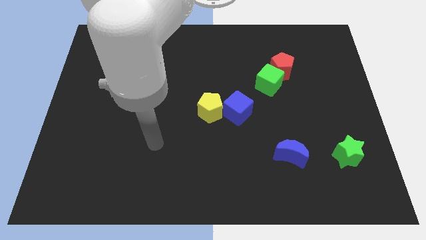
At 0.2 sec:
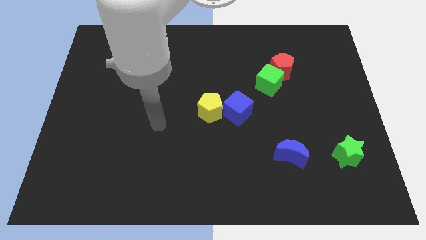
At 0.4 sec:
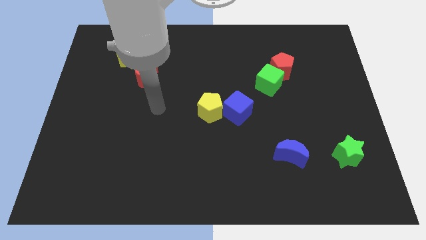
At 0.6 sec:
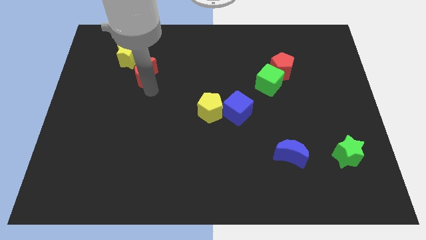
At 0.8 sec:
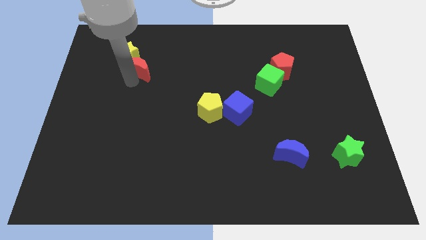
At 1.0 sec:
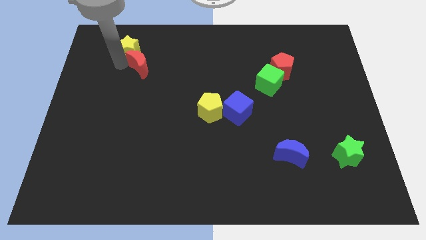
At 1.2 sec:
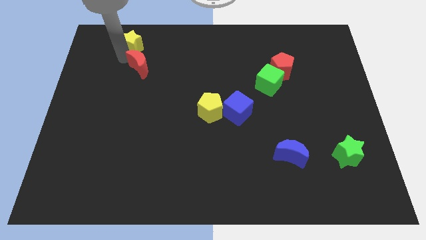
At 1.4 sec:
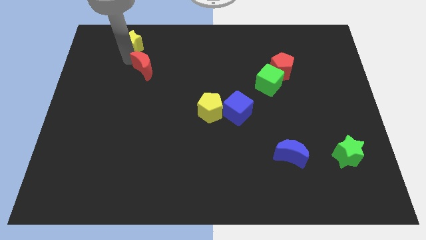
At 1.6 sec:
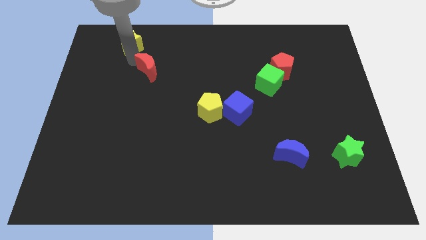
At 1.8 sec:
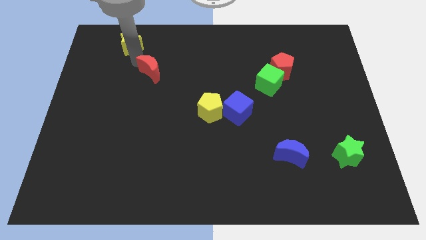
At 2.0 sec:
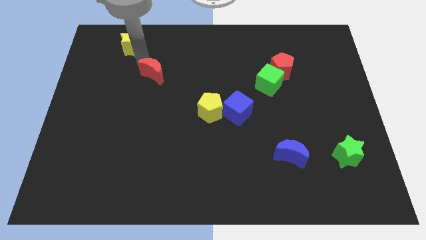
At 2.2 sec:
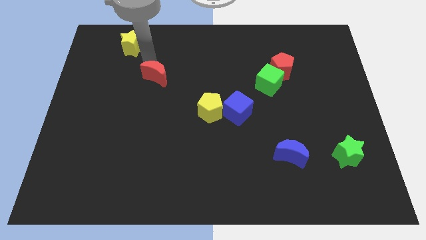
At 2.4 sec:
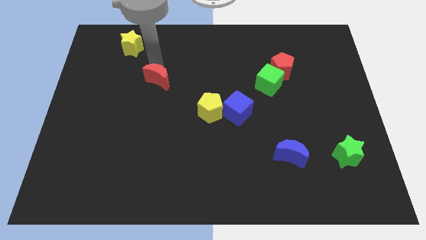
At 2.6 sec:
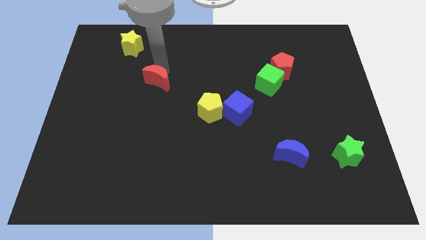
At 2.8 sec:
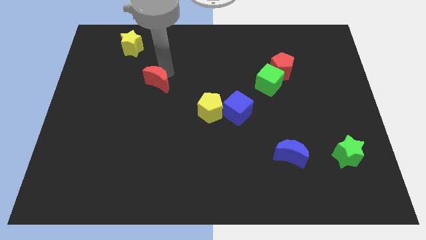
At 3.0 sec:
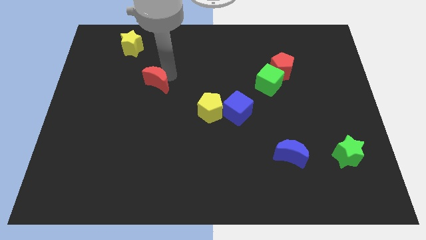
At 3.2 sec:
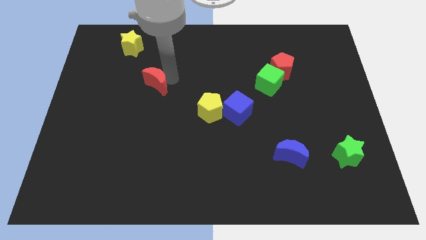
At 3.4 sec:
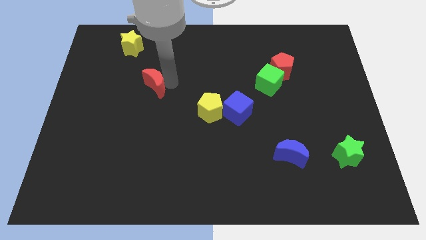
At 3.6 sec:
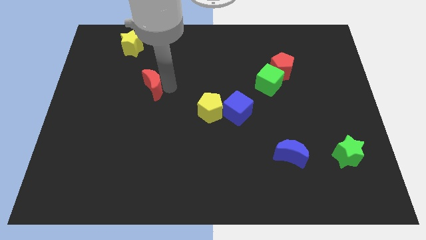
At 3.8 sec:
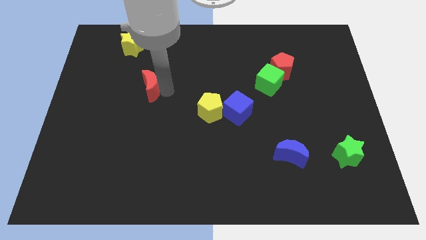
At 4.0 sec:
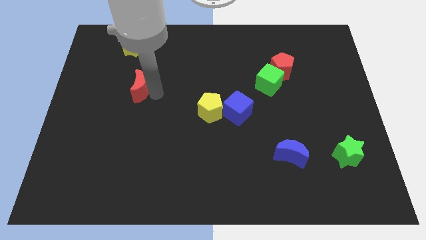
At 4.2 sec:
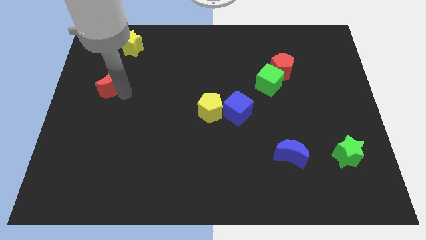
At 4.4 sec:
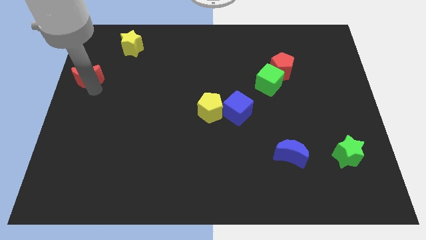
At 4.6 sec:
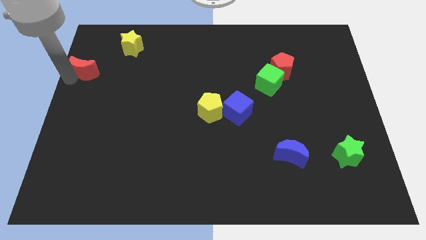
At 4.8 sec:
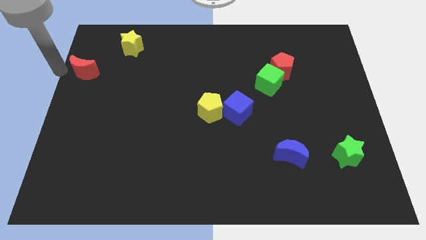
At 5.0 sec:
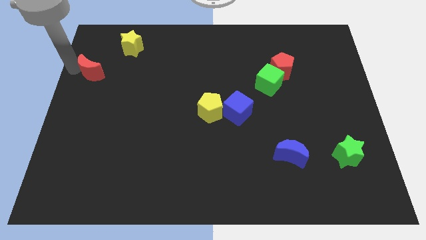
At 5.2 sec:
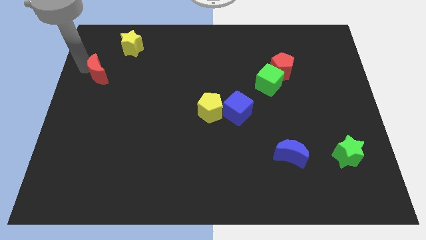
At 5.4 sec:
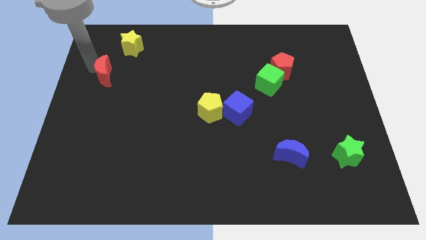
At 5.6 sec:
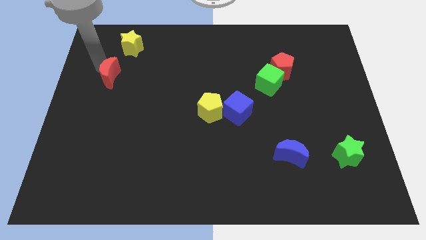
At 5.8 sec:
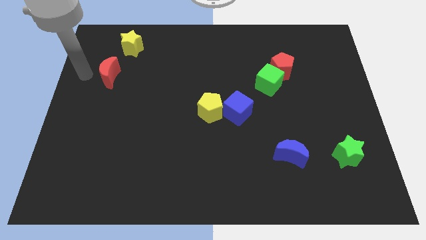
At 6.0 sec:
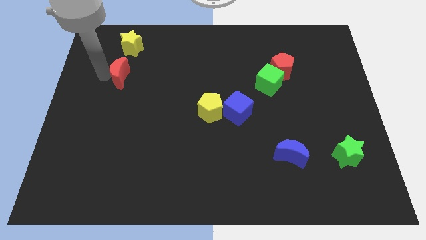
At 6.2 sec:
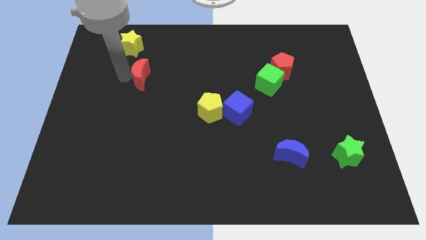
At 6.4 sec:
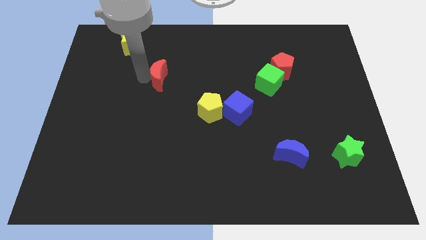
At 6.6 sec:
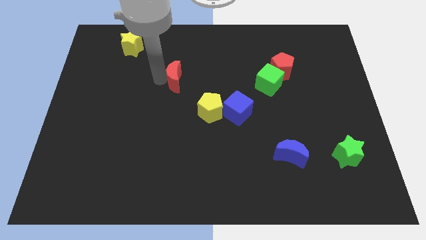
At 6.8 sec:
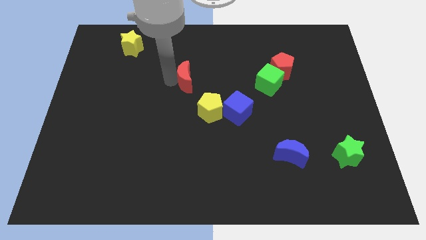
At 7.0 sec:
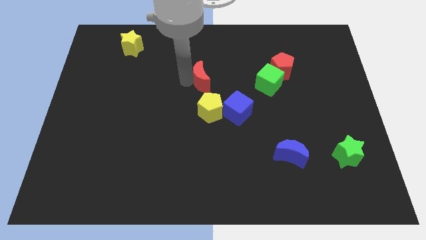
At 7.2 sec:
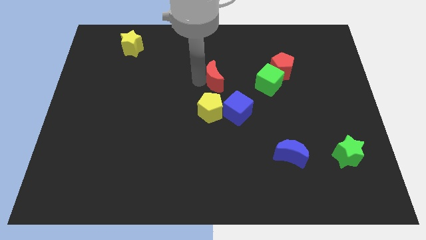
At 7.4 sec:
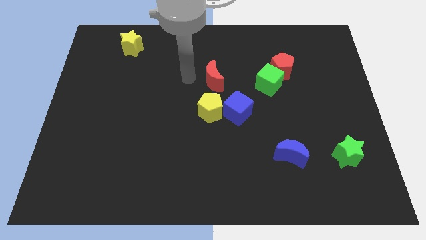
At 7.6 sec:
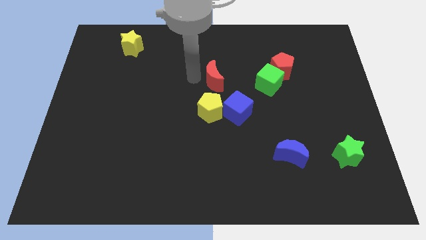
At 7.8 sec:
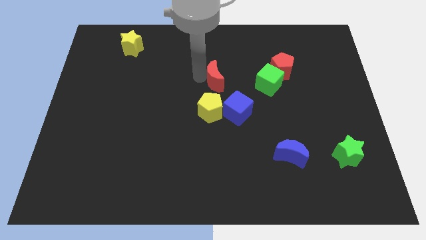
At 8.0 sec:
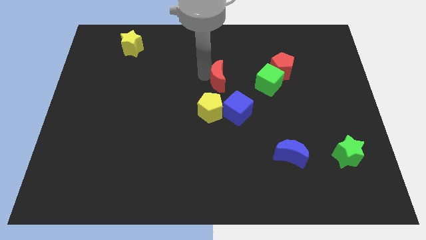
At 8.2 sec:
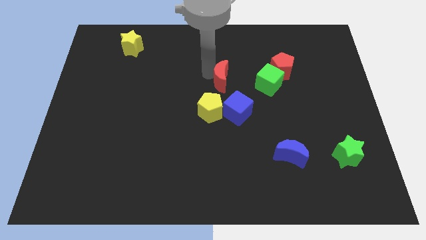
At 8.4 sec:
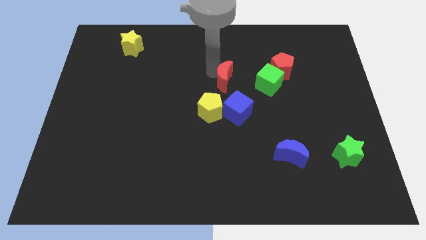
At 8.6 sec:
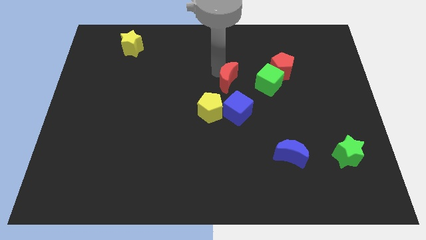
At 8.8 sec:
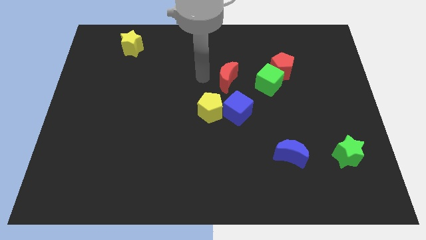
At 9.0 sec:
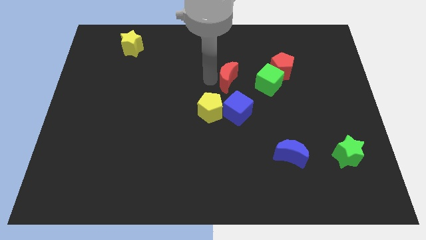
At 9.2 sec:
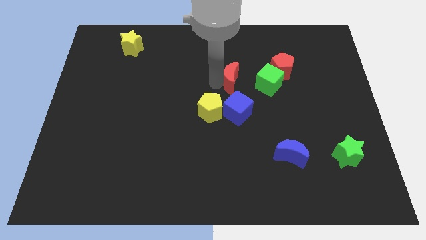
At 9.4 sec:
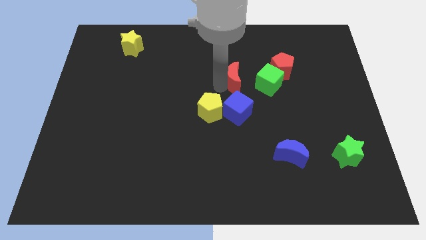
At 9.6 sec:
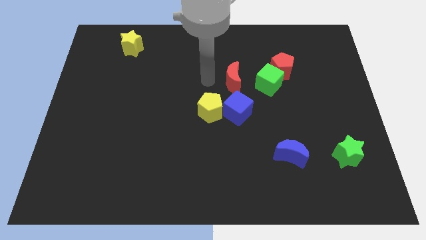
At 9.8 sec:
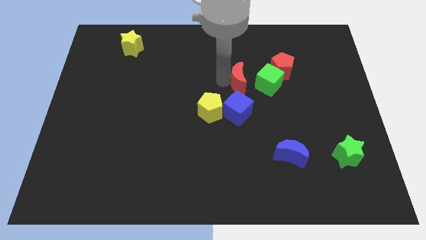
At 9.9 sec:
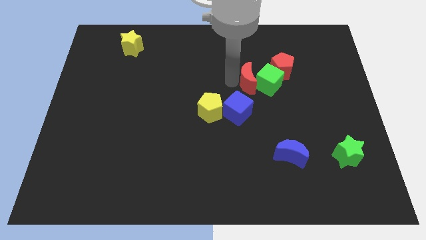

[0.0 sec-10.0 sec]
put the red moon to the green cube

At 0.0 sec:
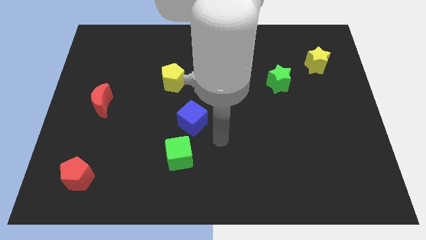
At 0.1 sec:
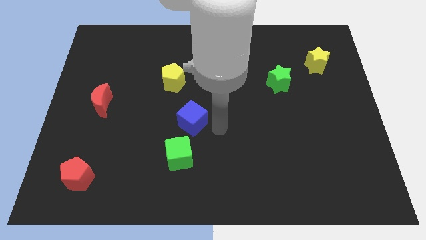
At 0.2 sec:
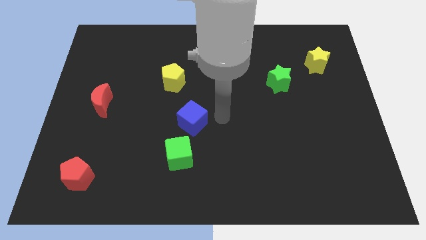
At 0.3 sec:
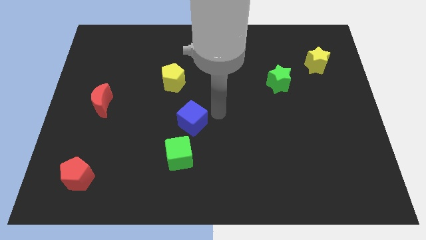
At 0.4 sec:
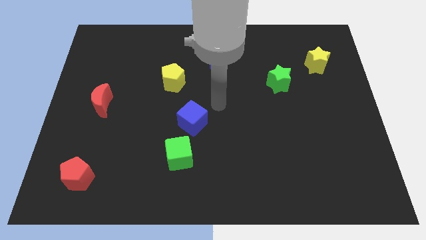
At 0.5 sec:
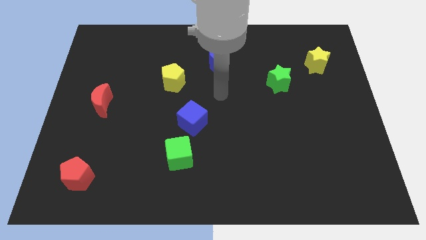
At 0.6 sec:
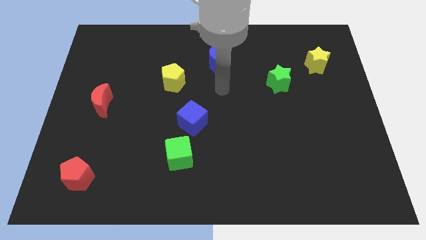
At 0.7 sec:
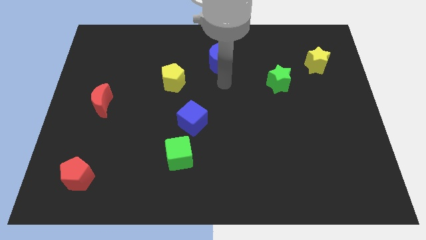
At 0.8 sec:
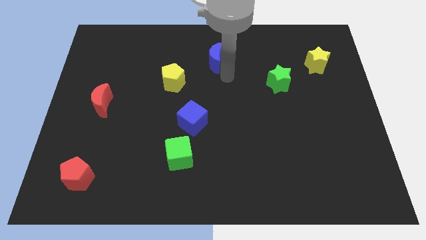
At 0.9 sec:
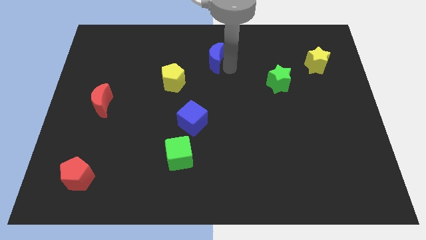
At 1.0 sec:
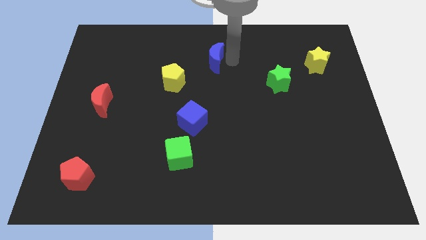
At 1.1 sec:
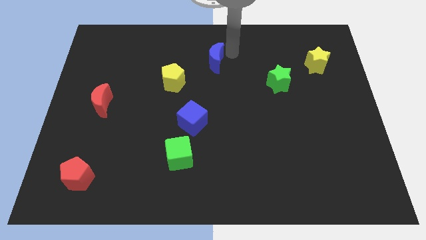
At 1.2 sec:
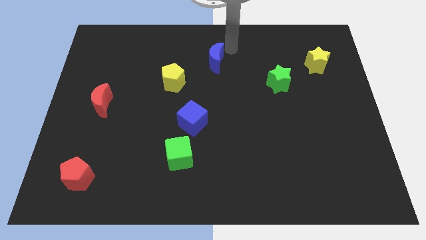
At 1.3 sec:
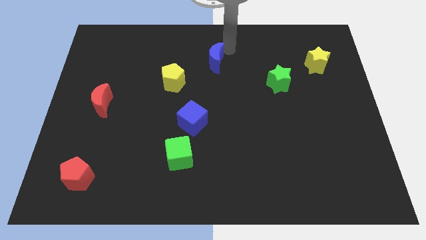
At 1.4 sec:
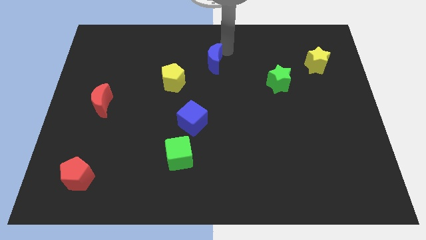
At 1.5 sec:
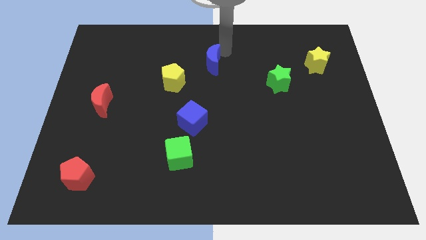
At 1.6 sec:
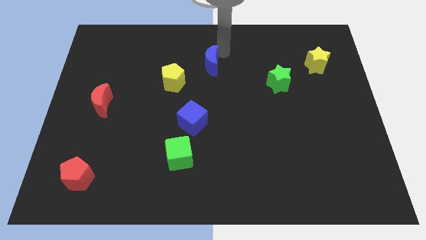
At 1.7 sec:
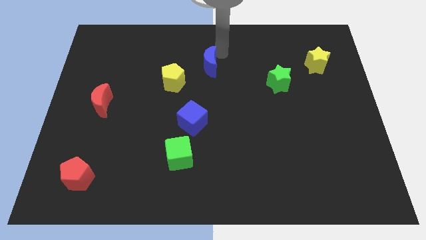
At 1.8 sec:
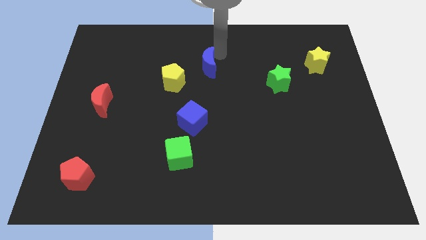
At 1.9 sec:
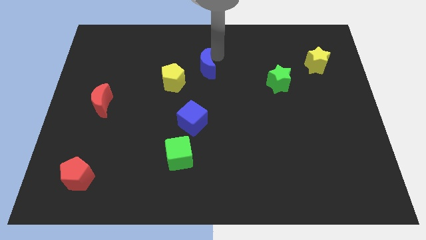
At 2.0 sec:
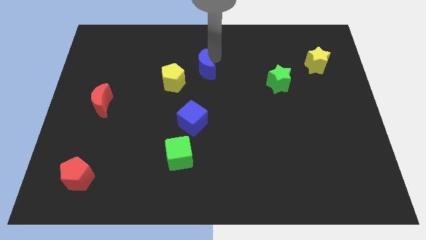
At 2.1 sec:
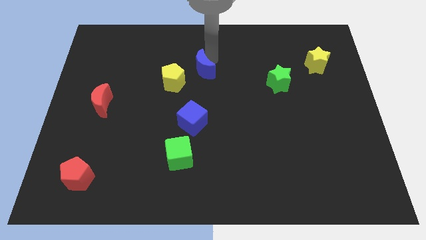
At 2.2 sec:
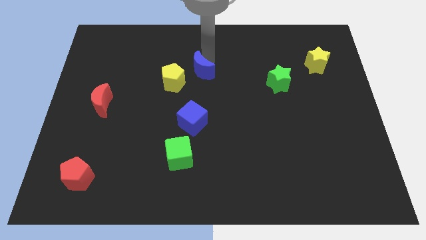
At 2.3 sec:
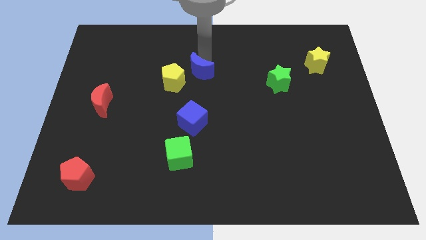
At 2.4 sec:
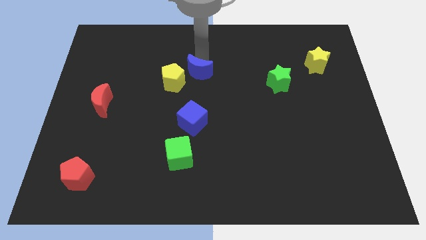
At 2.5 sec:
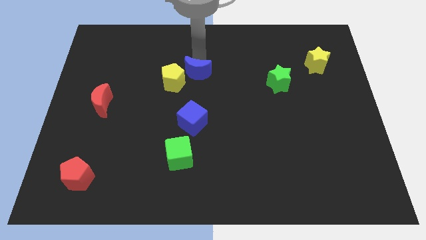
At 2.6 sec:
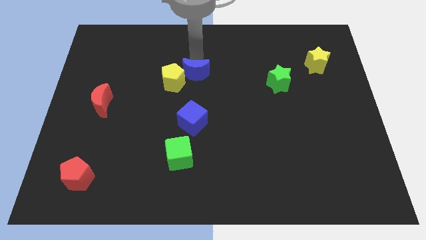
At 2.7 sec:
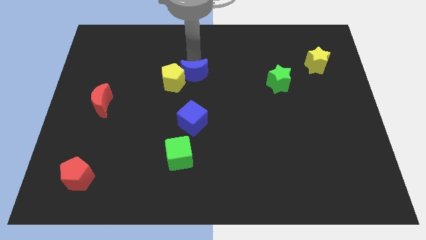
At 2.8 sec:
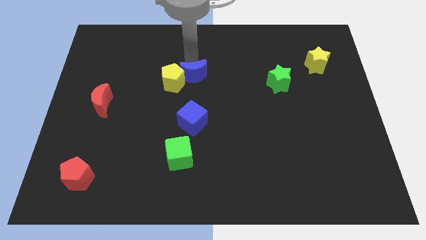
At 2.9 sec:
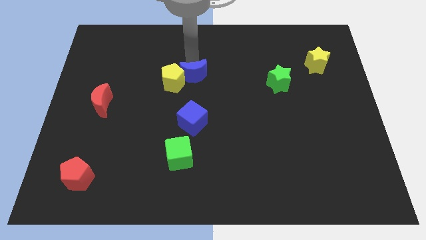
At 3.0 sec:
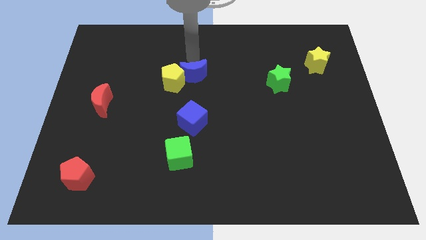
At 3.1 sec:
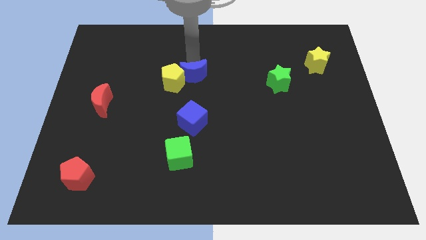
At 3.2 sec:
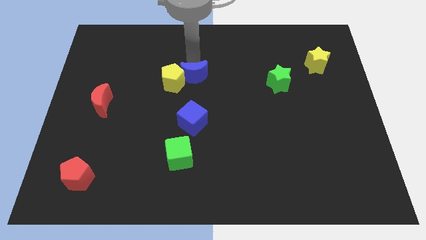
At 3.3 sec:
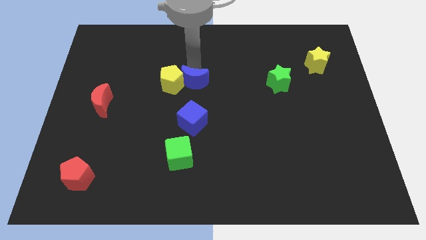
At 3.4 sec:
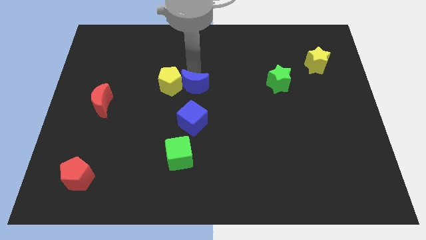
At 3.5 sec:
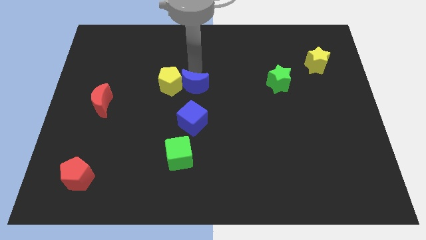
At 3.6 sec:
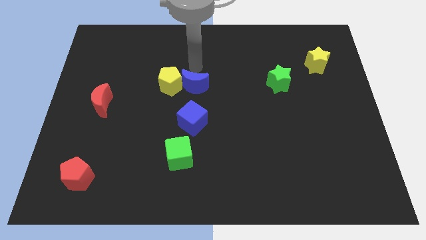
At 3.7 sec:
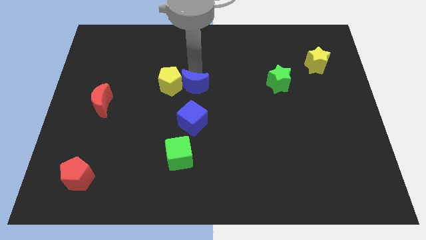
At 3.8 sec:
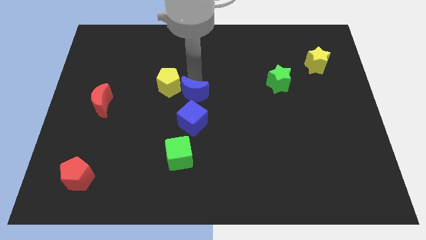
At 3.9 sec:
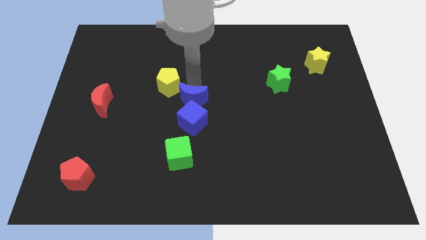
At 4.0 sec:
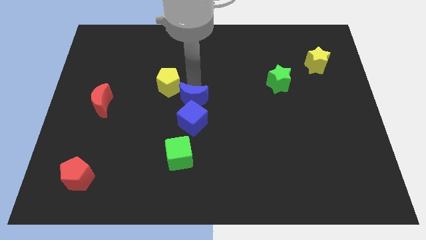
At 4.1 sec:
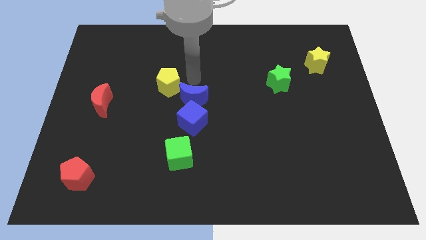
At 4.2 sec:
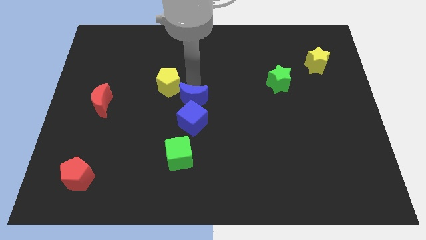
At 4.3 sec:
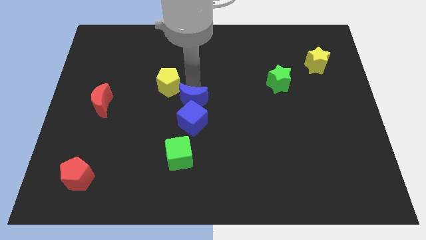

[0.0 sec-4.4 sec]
push the blue moon next to the blue cube
